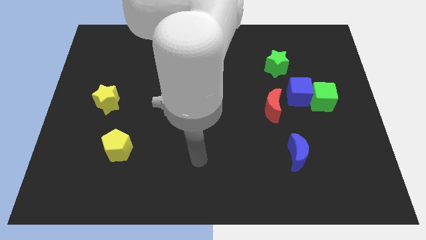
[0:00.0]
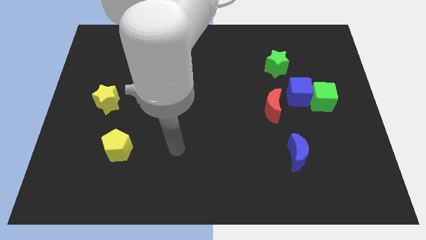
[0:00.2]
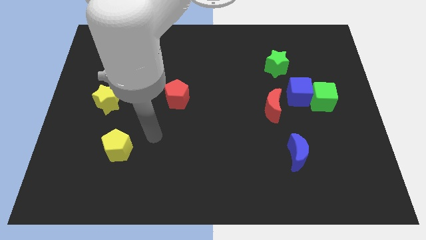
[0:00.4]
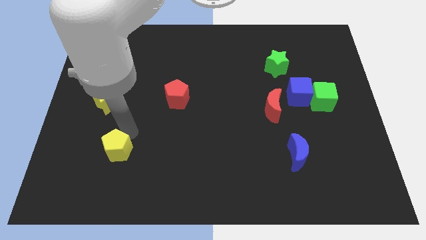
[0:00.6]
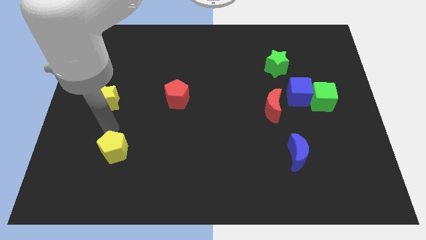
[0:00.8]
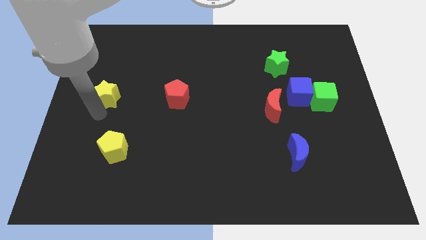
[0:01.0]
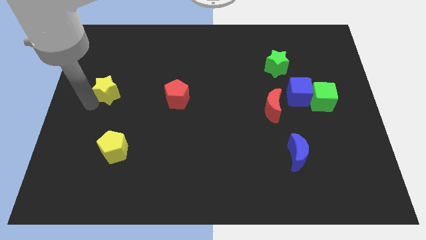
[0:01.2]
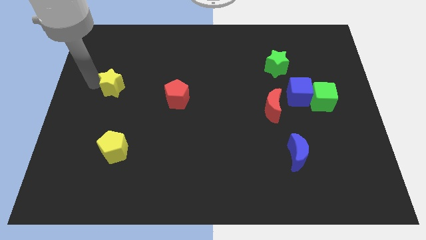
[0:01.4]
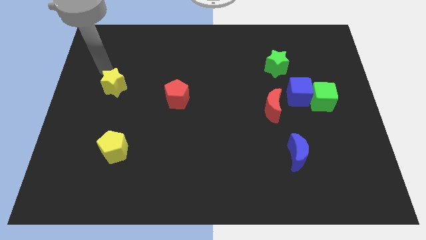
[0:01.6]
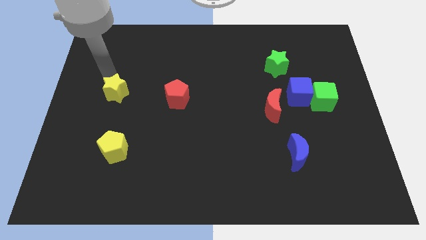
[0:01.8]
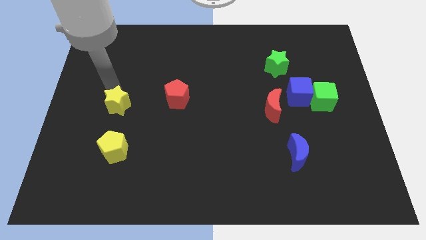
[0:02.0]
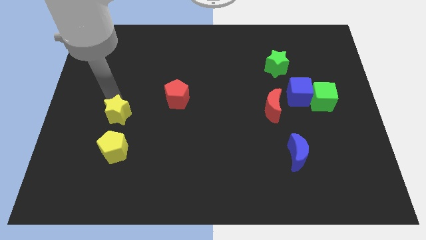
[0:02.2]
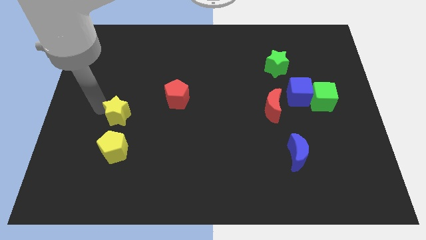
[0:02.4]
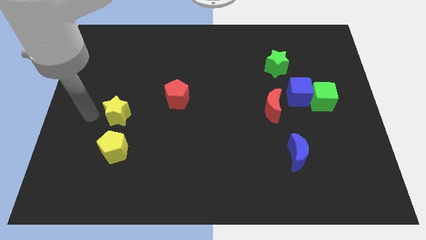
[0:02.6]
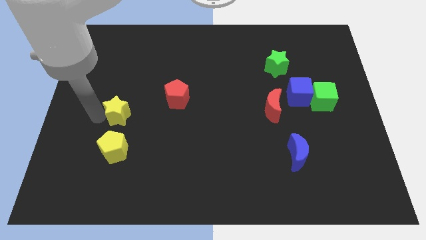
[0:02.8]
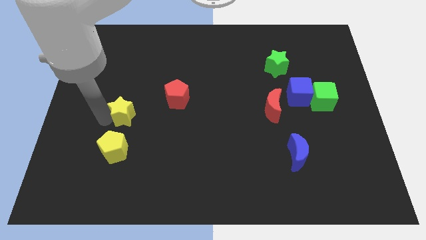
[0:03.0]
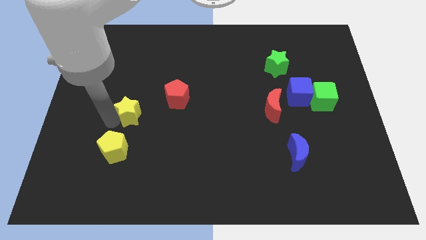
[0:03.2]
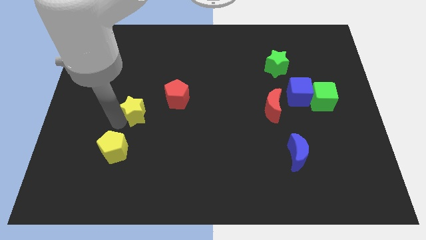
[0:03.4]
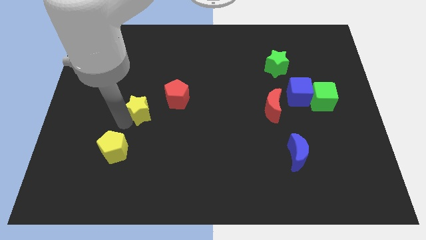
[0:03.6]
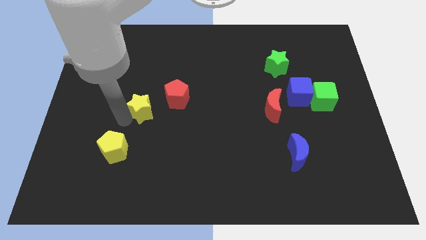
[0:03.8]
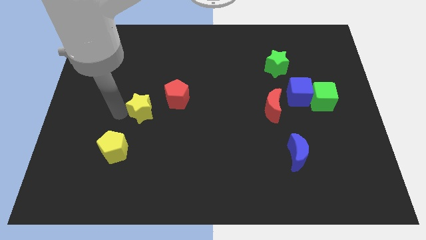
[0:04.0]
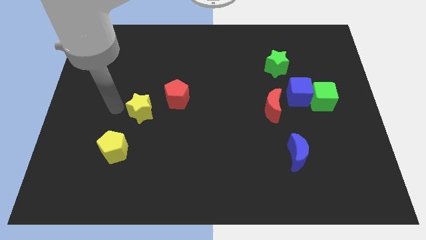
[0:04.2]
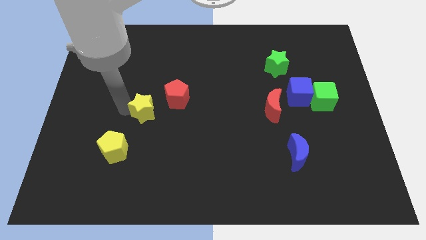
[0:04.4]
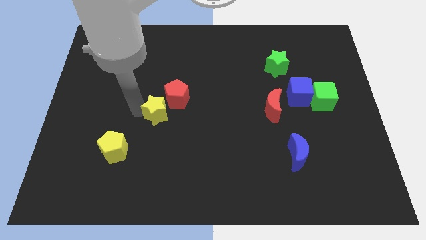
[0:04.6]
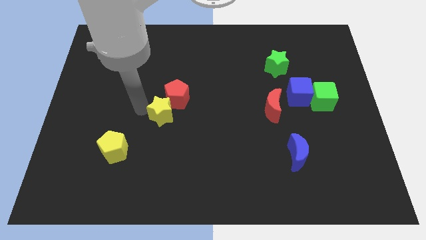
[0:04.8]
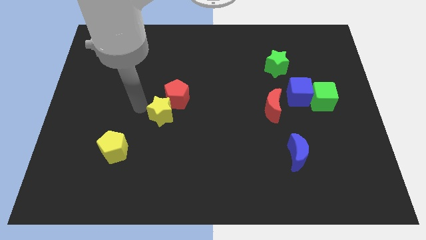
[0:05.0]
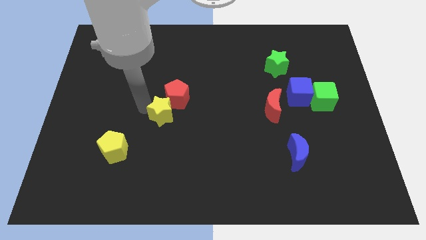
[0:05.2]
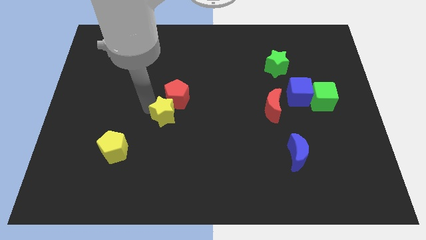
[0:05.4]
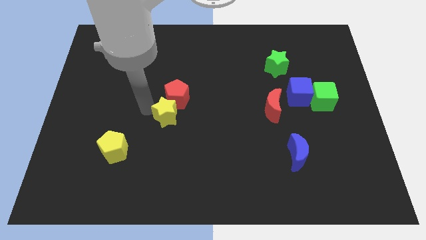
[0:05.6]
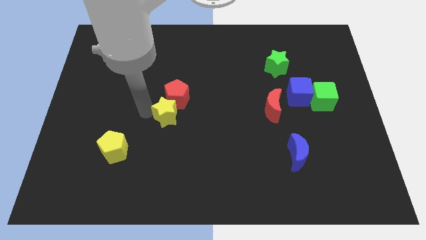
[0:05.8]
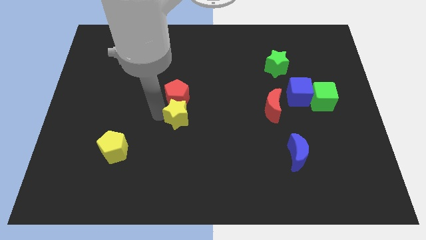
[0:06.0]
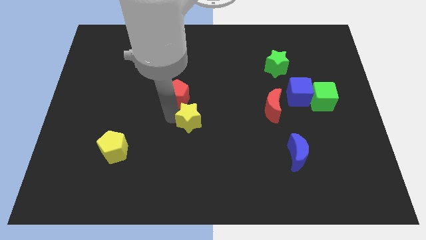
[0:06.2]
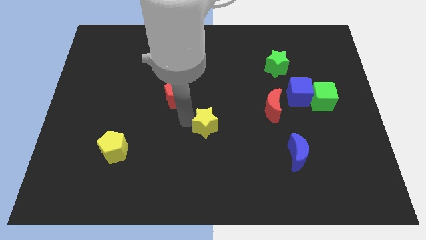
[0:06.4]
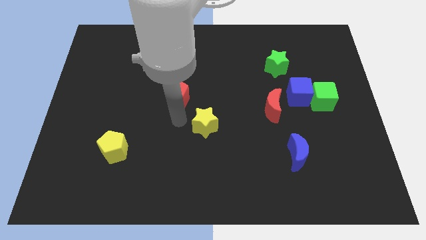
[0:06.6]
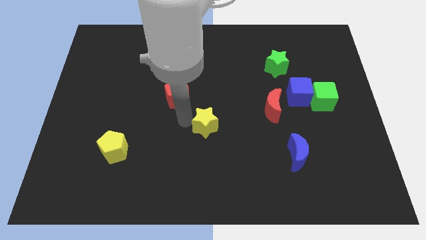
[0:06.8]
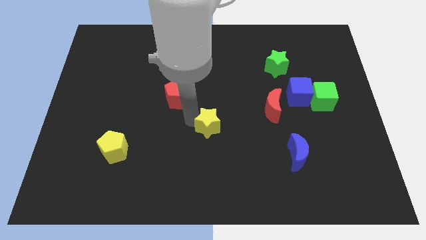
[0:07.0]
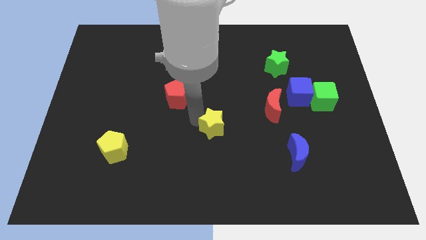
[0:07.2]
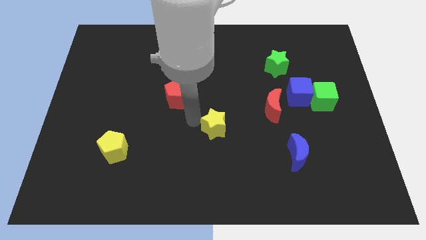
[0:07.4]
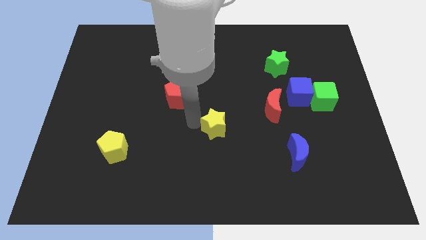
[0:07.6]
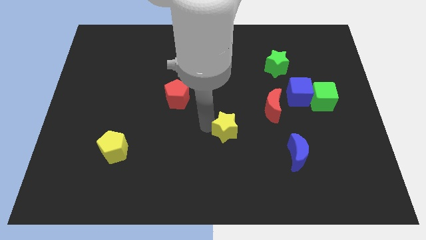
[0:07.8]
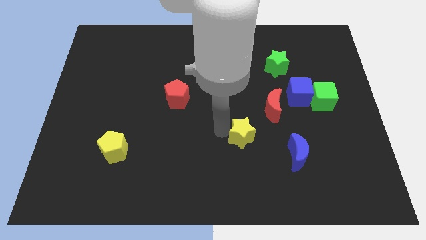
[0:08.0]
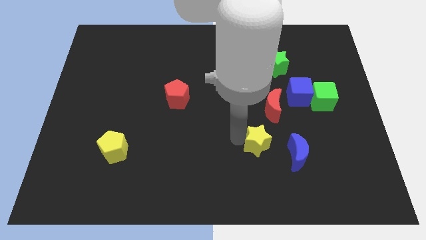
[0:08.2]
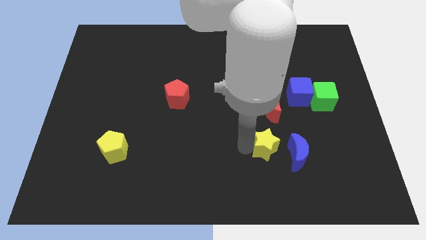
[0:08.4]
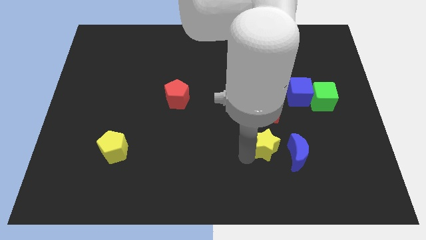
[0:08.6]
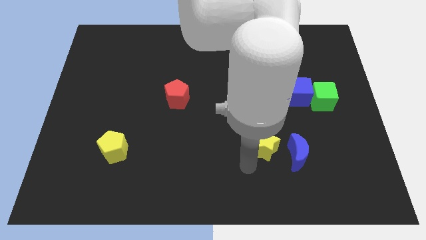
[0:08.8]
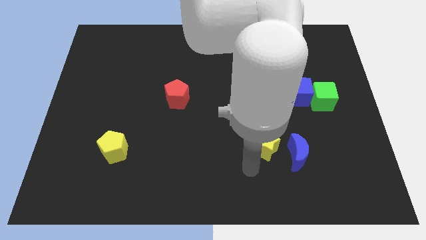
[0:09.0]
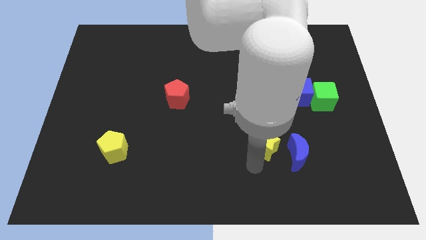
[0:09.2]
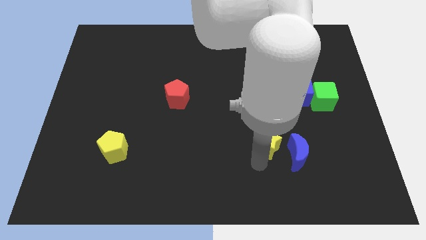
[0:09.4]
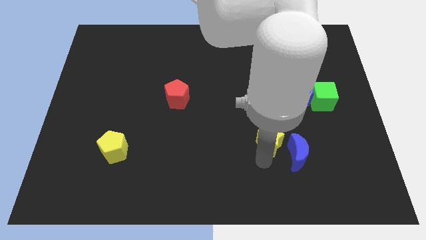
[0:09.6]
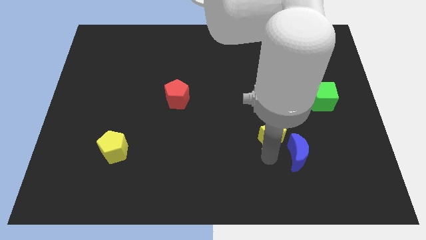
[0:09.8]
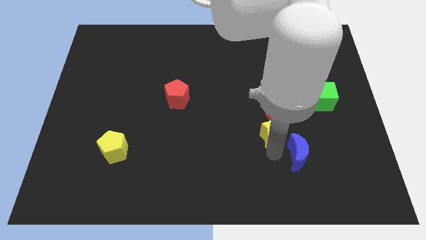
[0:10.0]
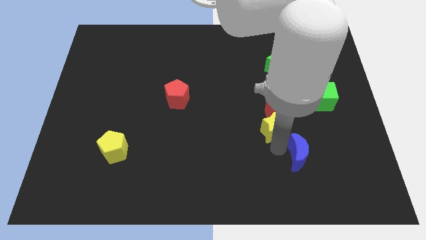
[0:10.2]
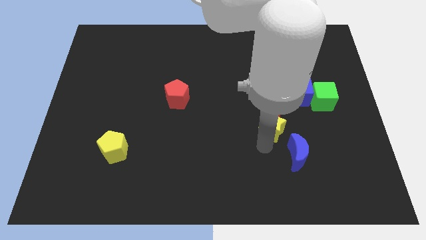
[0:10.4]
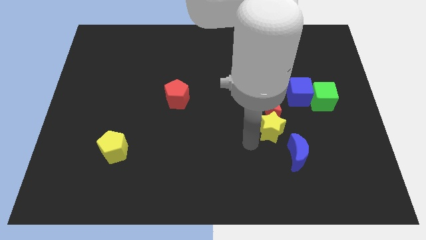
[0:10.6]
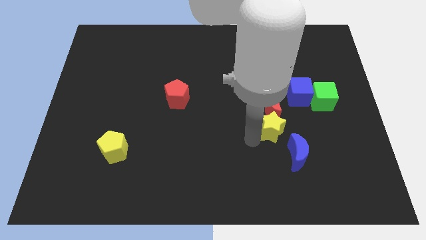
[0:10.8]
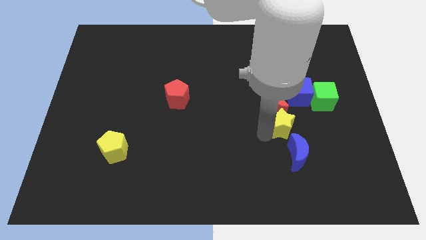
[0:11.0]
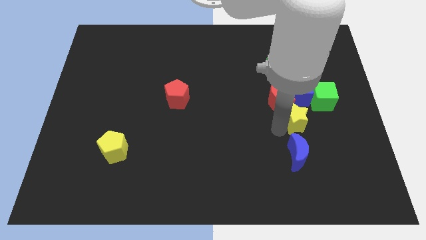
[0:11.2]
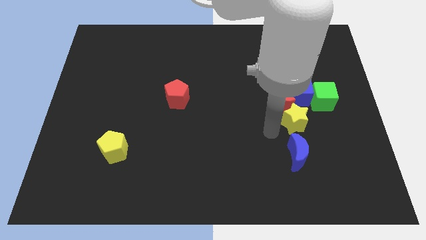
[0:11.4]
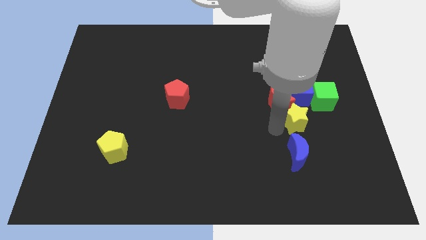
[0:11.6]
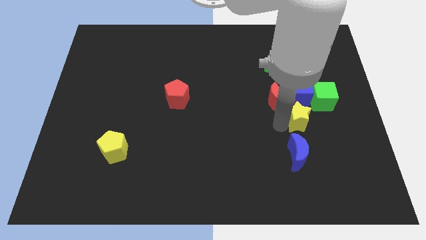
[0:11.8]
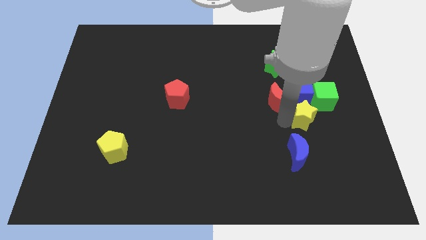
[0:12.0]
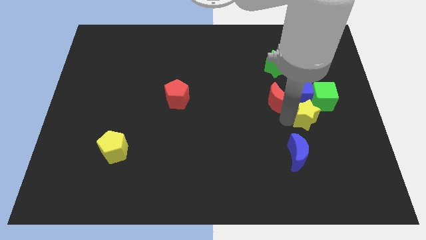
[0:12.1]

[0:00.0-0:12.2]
move the yellow star to the bottom right side of the blue cube

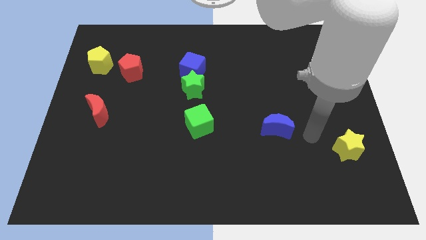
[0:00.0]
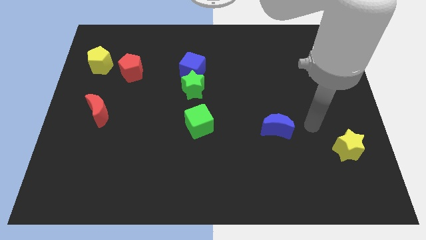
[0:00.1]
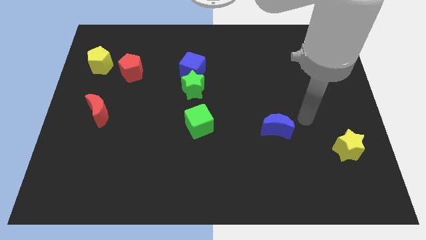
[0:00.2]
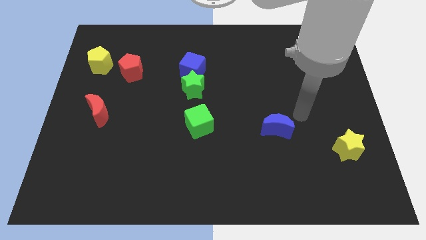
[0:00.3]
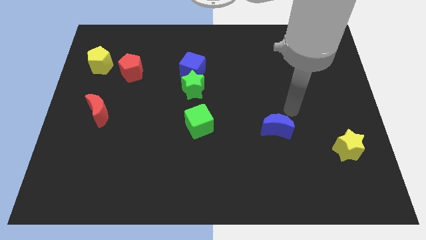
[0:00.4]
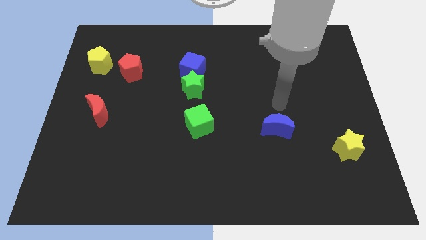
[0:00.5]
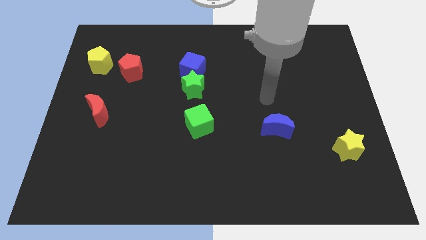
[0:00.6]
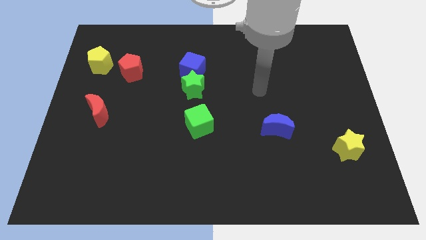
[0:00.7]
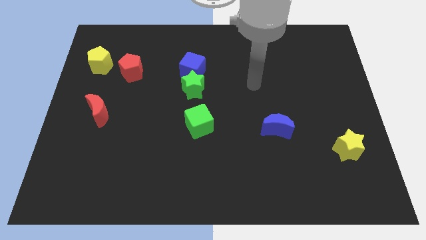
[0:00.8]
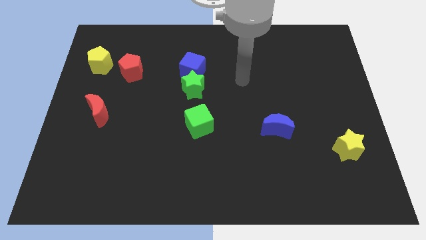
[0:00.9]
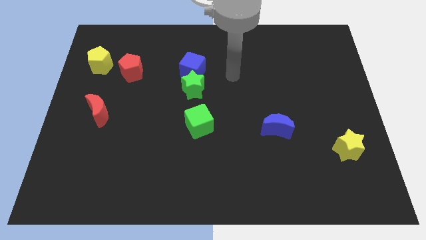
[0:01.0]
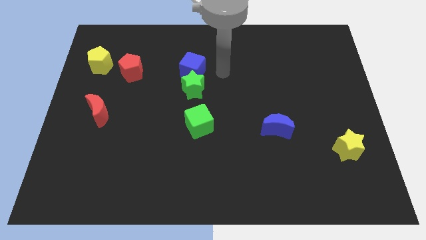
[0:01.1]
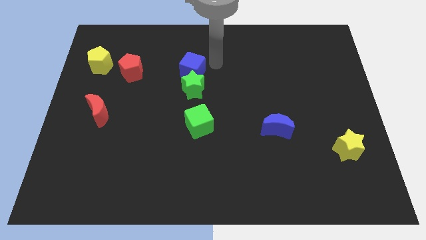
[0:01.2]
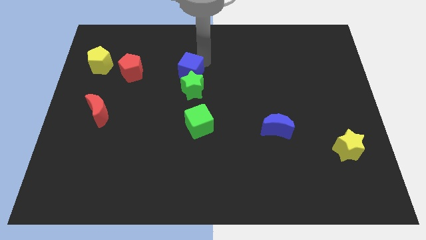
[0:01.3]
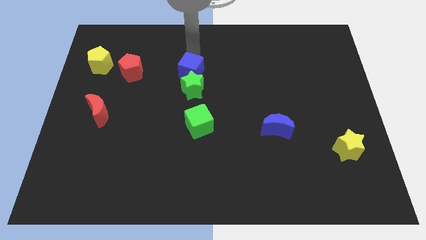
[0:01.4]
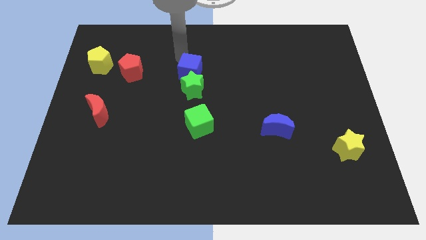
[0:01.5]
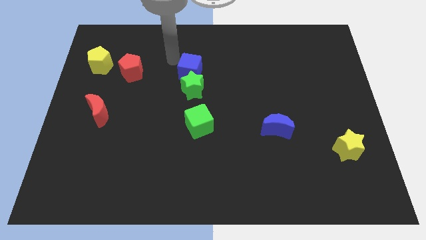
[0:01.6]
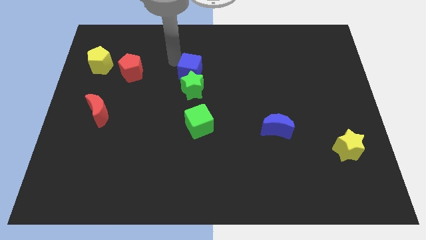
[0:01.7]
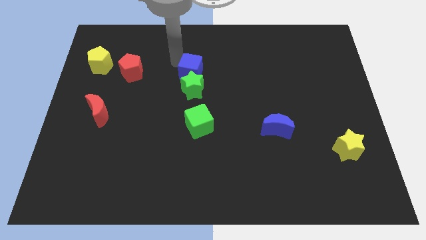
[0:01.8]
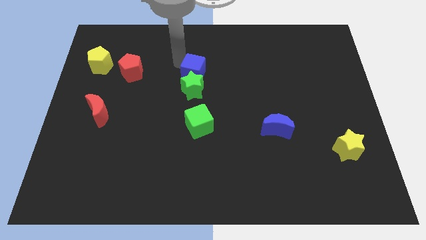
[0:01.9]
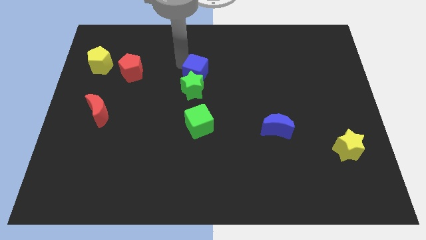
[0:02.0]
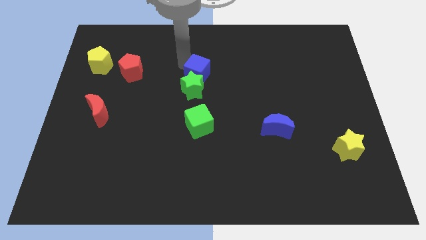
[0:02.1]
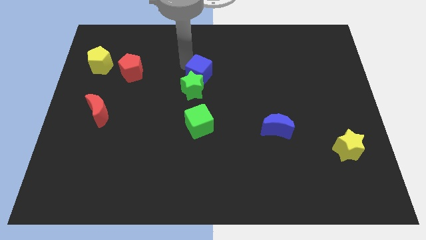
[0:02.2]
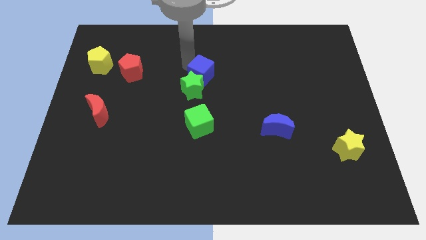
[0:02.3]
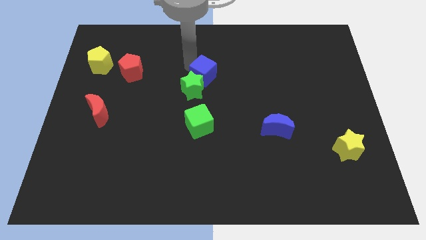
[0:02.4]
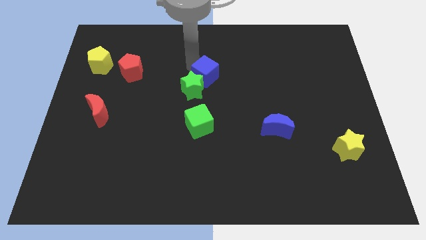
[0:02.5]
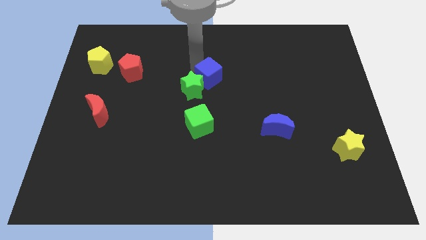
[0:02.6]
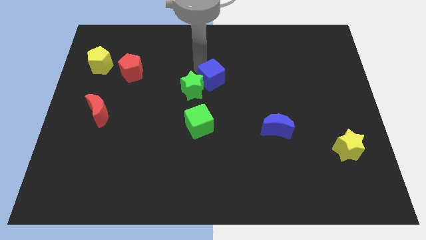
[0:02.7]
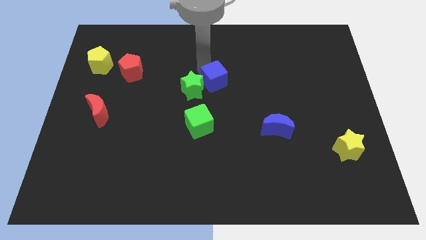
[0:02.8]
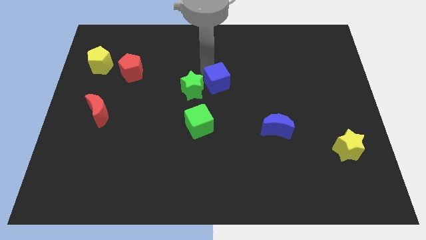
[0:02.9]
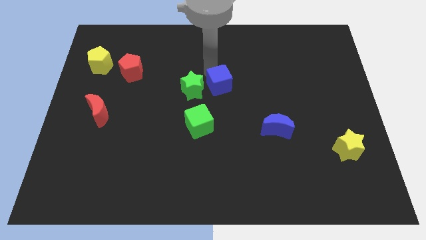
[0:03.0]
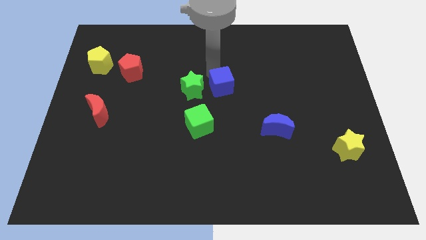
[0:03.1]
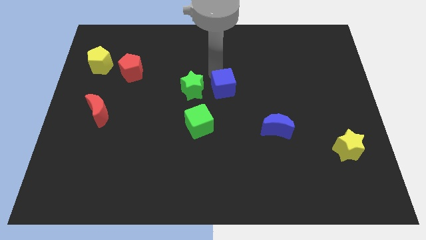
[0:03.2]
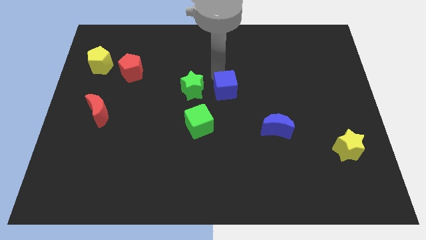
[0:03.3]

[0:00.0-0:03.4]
push the blue cube to the top right of the green cube
